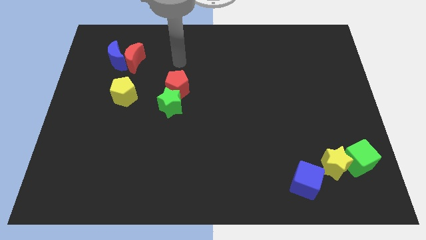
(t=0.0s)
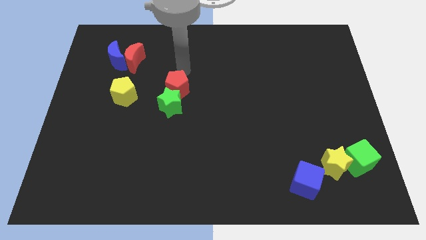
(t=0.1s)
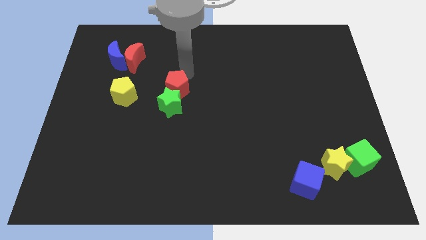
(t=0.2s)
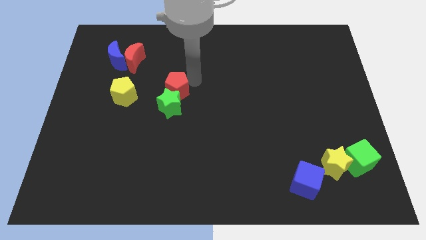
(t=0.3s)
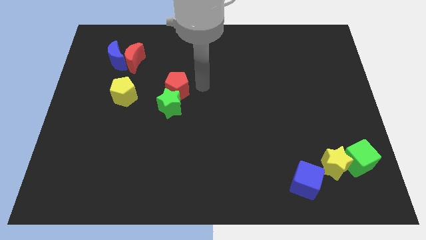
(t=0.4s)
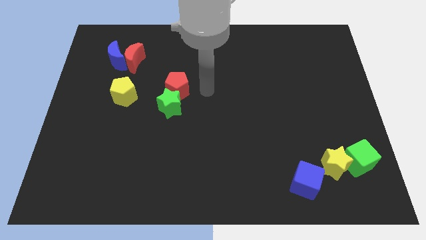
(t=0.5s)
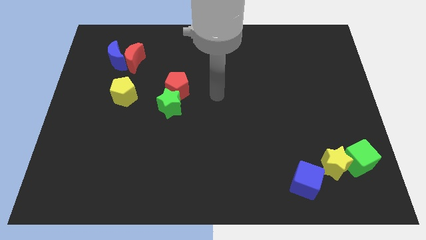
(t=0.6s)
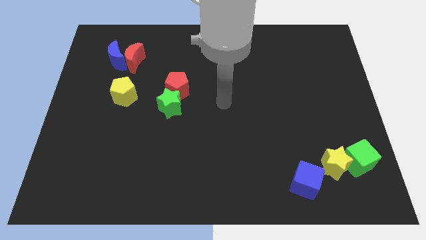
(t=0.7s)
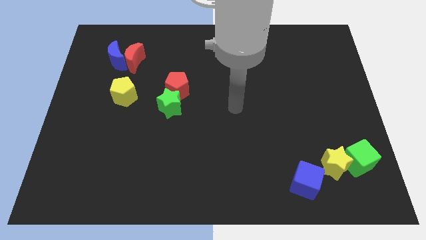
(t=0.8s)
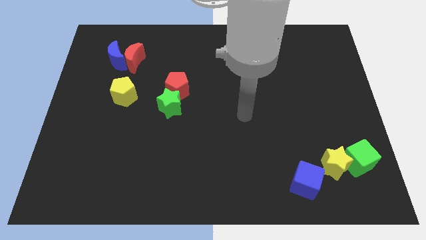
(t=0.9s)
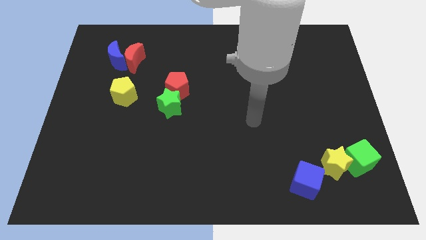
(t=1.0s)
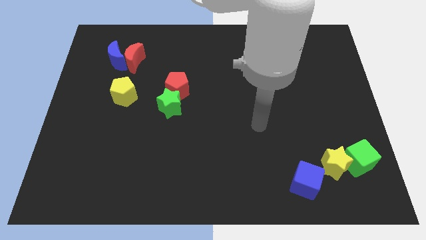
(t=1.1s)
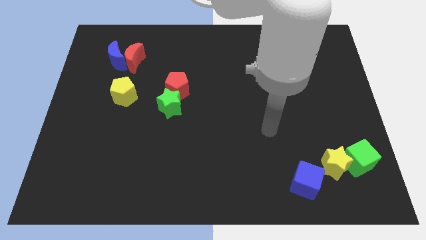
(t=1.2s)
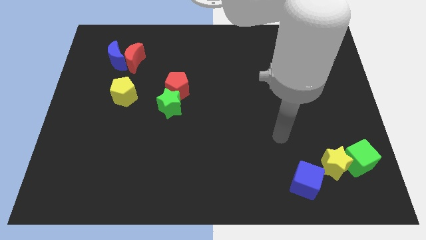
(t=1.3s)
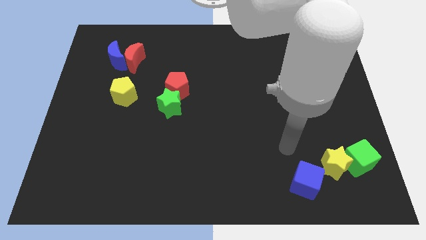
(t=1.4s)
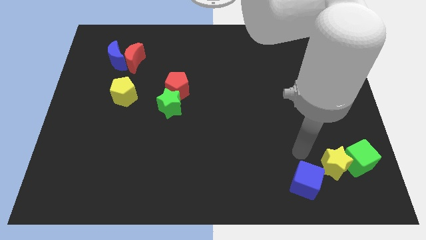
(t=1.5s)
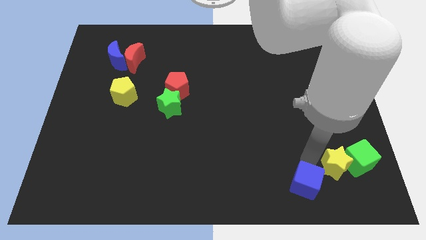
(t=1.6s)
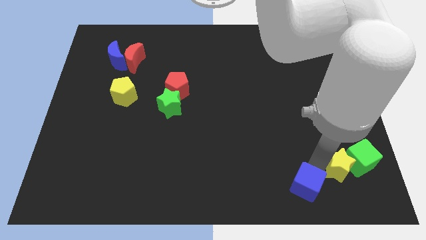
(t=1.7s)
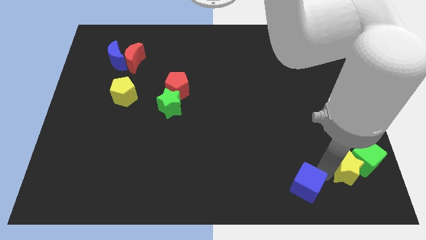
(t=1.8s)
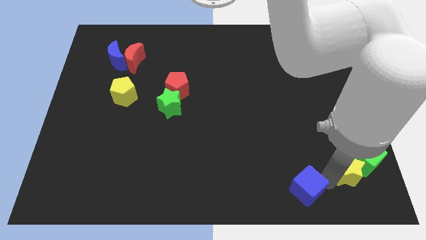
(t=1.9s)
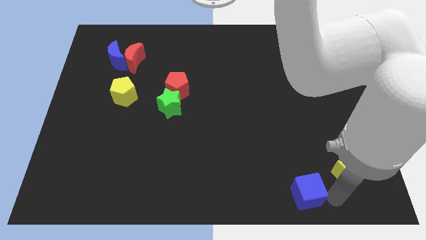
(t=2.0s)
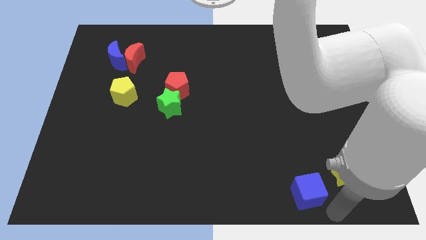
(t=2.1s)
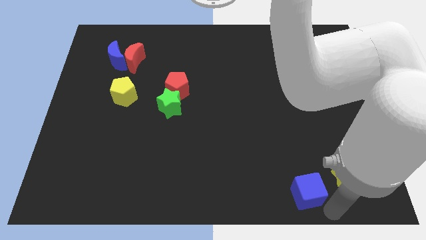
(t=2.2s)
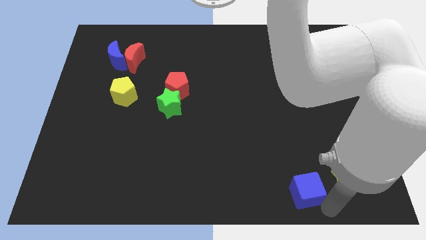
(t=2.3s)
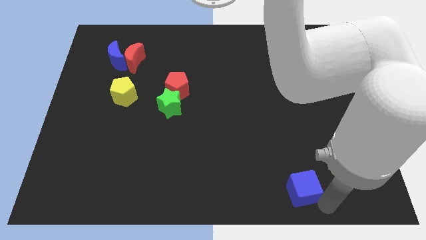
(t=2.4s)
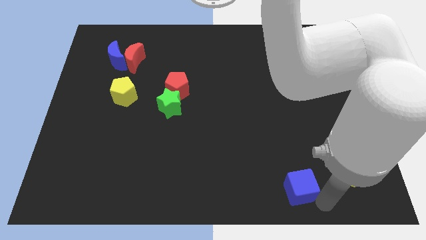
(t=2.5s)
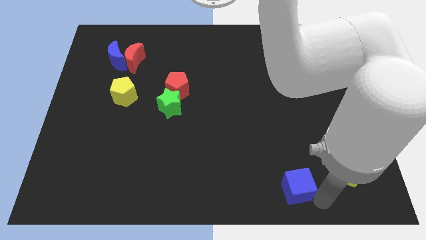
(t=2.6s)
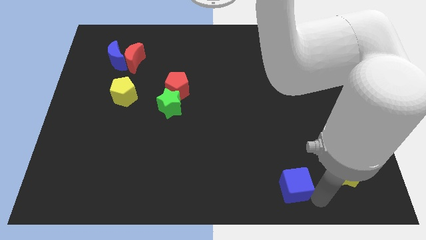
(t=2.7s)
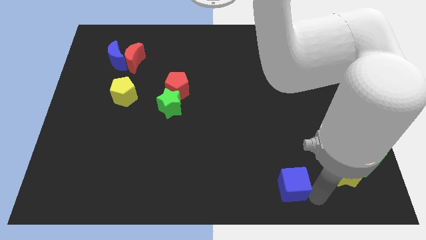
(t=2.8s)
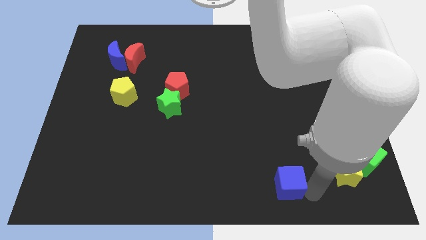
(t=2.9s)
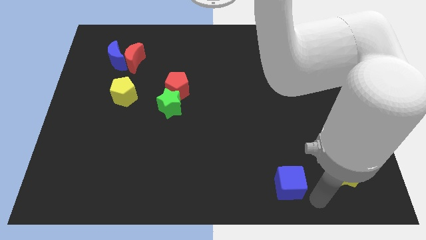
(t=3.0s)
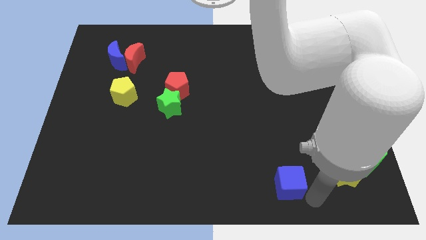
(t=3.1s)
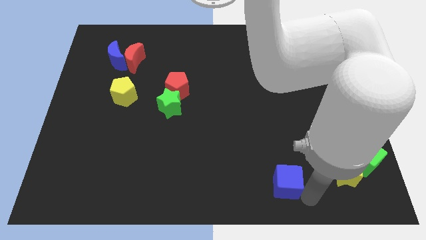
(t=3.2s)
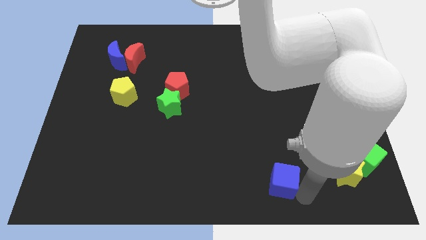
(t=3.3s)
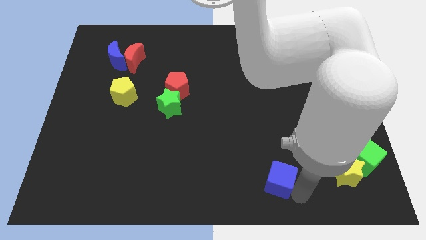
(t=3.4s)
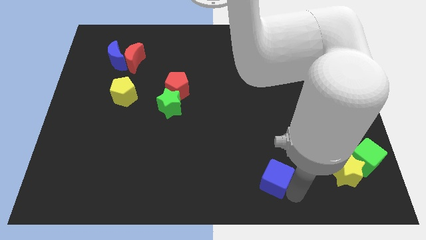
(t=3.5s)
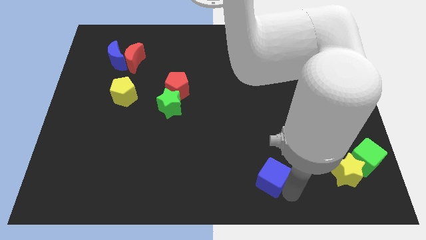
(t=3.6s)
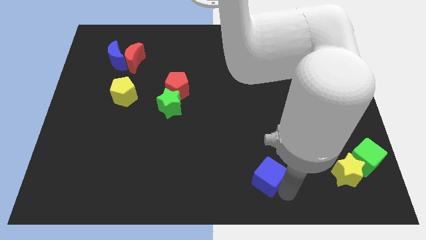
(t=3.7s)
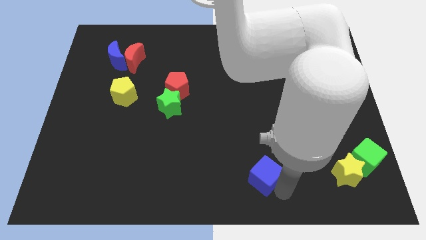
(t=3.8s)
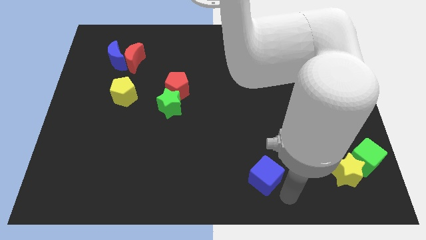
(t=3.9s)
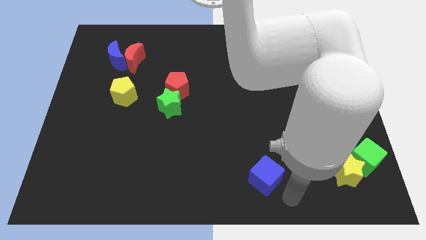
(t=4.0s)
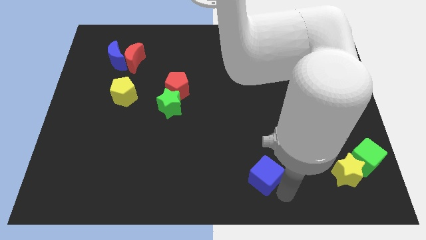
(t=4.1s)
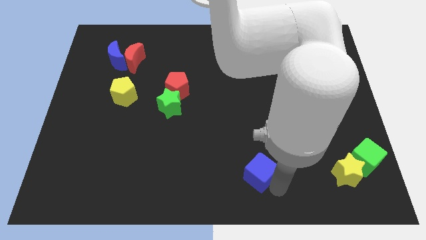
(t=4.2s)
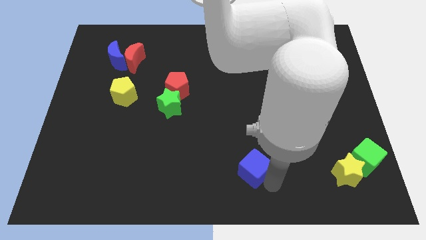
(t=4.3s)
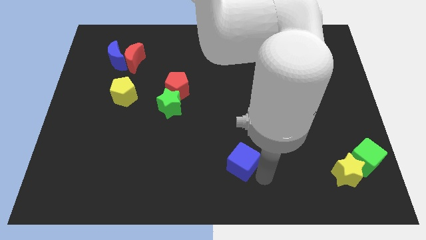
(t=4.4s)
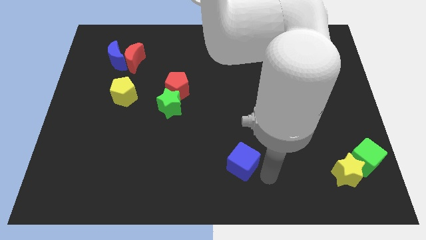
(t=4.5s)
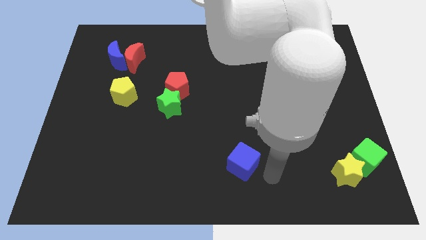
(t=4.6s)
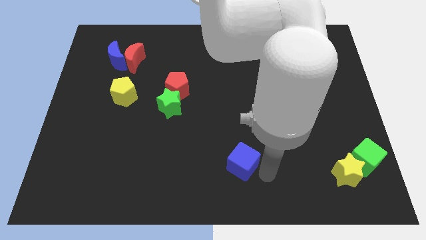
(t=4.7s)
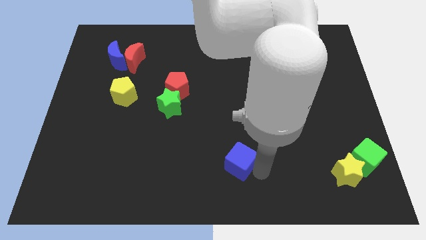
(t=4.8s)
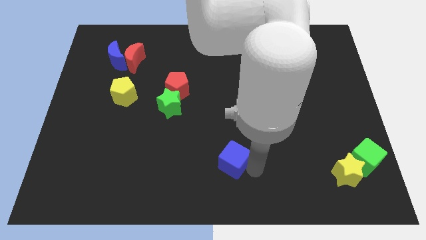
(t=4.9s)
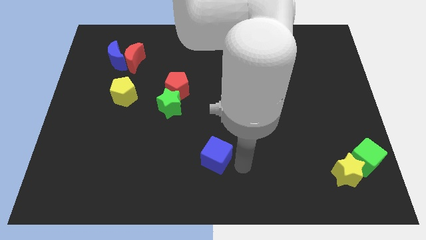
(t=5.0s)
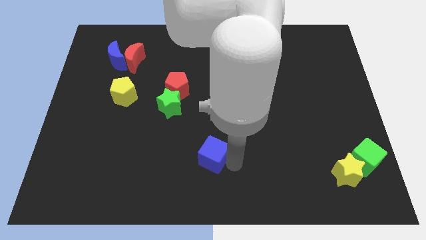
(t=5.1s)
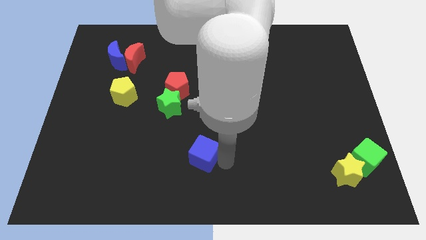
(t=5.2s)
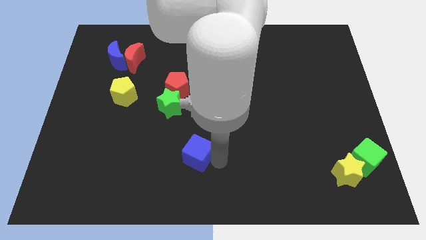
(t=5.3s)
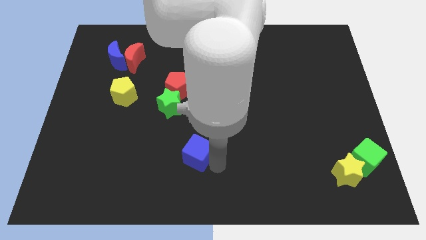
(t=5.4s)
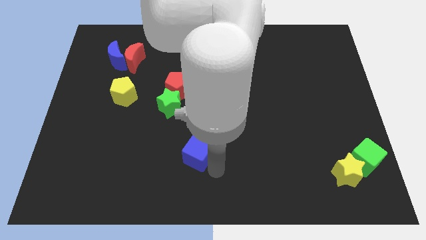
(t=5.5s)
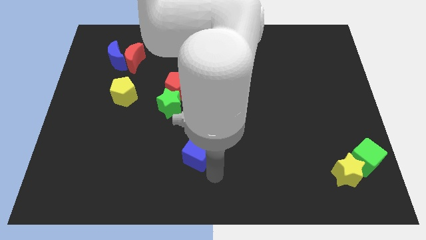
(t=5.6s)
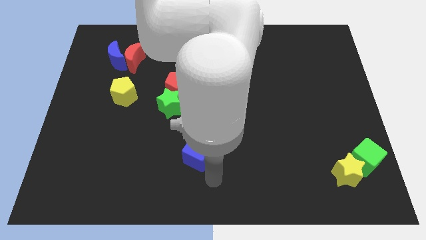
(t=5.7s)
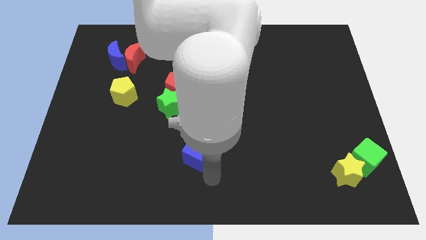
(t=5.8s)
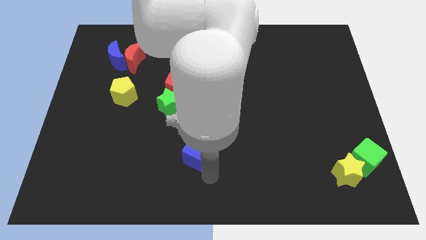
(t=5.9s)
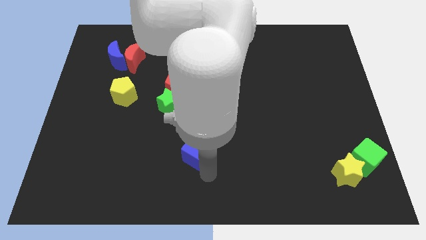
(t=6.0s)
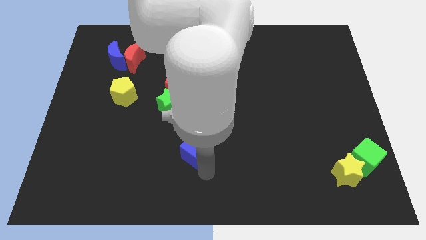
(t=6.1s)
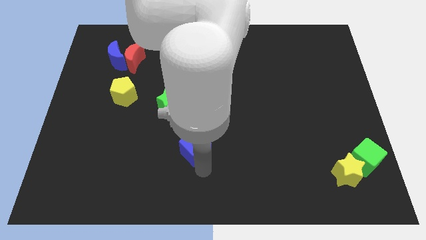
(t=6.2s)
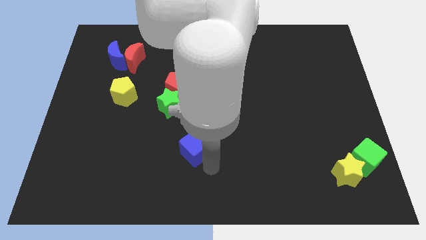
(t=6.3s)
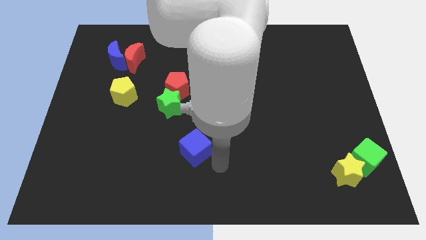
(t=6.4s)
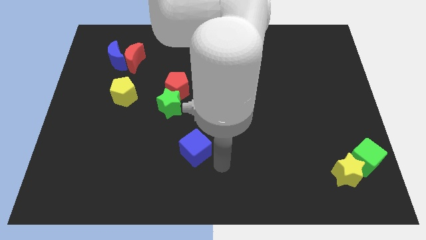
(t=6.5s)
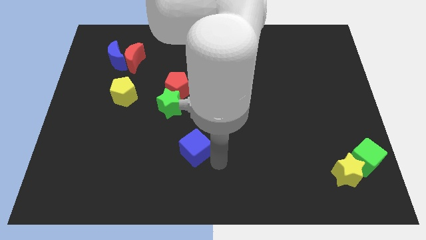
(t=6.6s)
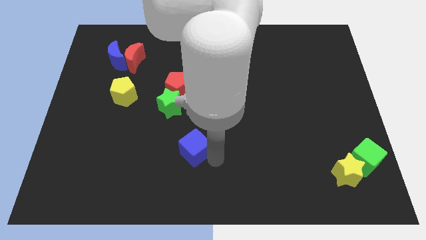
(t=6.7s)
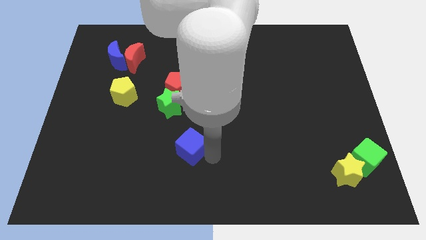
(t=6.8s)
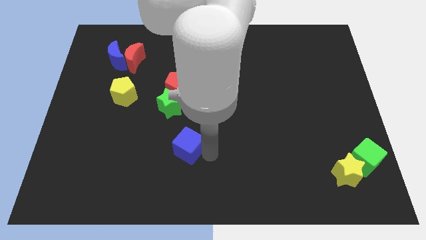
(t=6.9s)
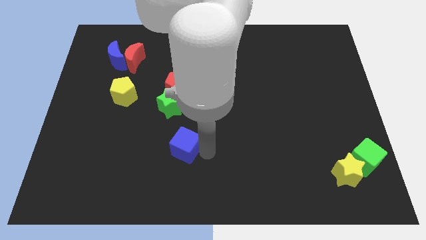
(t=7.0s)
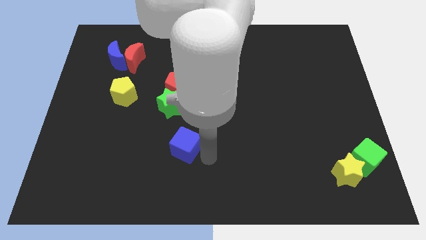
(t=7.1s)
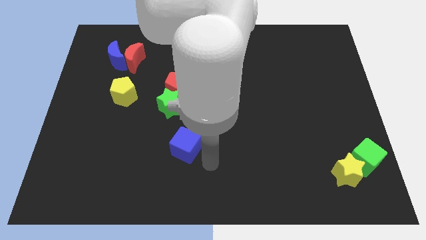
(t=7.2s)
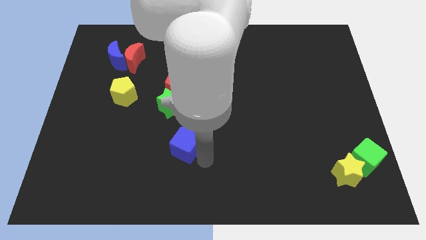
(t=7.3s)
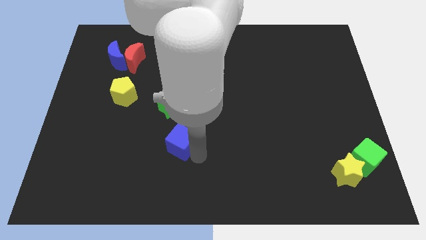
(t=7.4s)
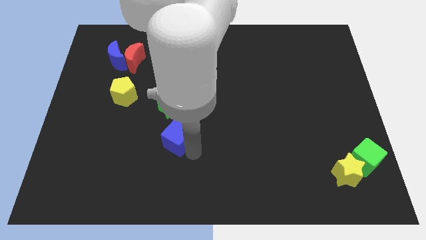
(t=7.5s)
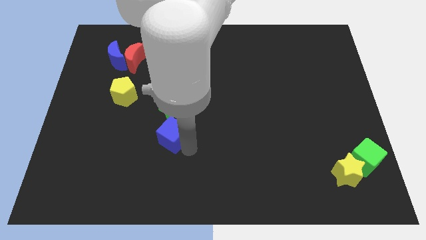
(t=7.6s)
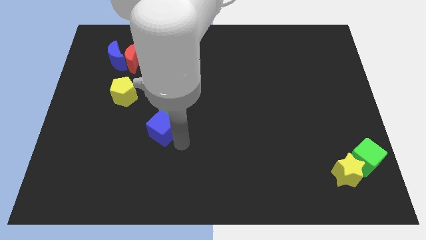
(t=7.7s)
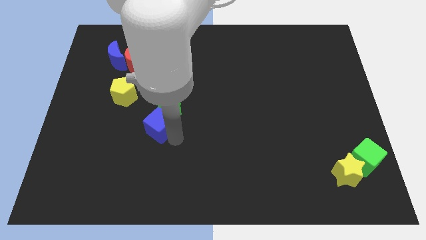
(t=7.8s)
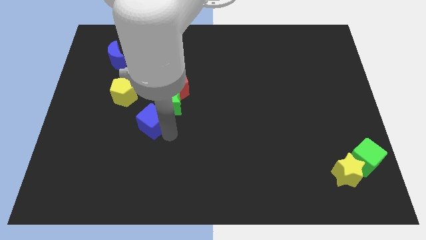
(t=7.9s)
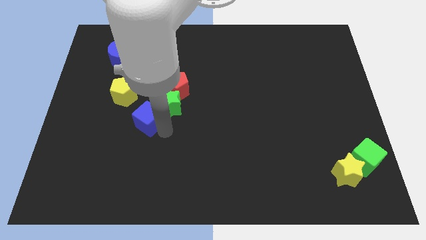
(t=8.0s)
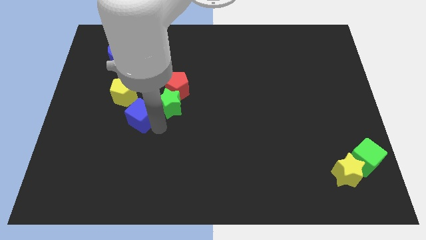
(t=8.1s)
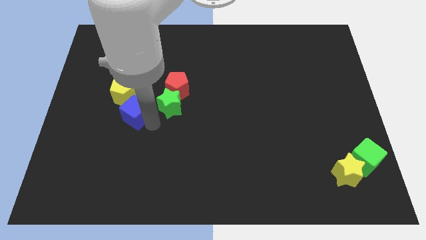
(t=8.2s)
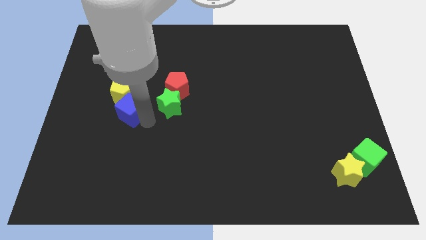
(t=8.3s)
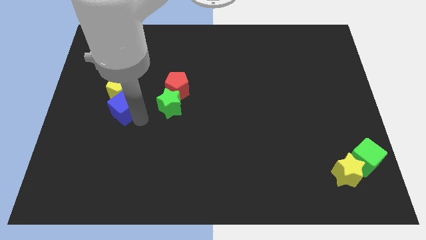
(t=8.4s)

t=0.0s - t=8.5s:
slide the blue cube to the bottom of the red moon
